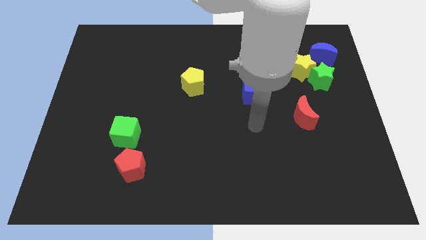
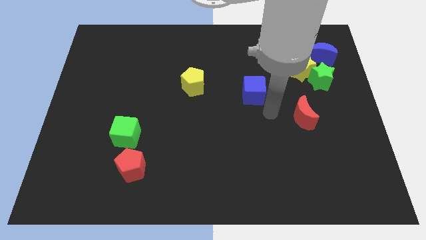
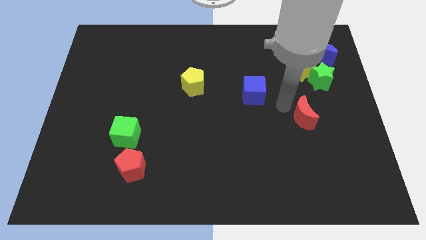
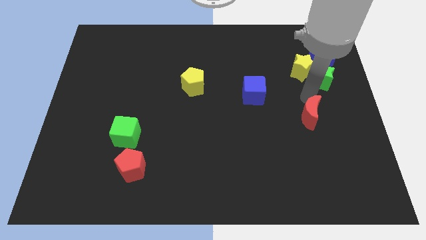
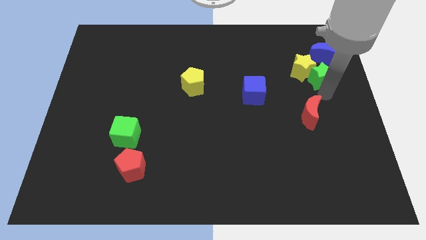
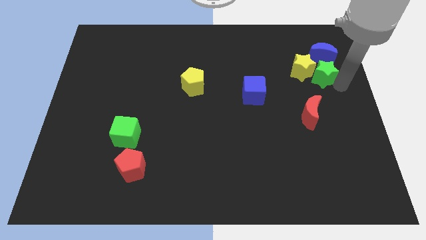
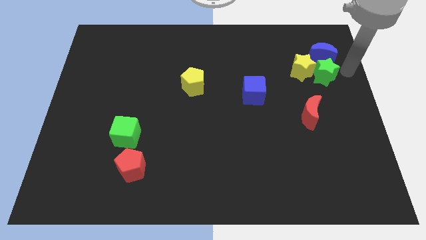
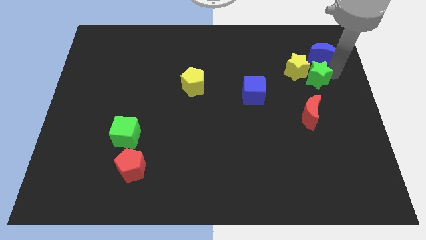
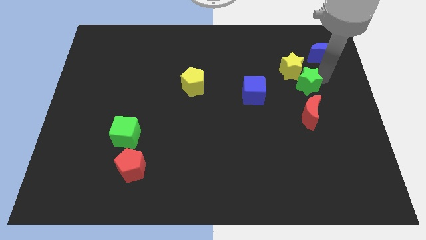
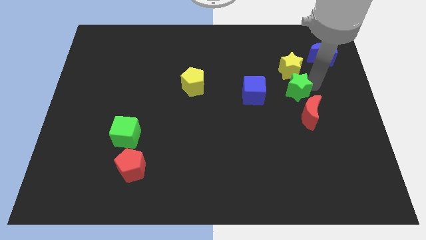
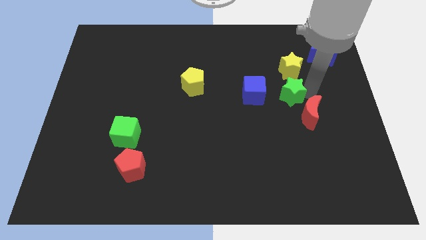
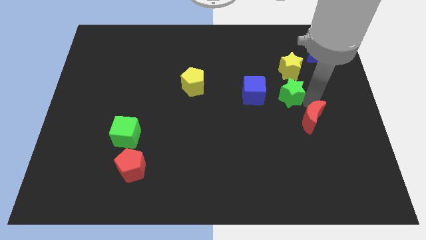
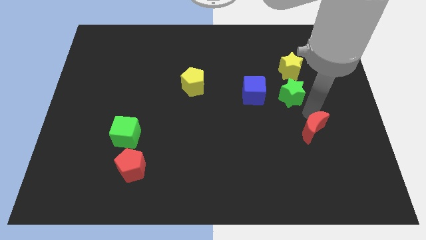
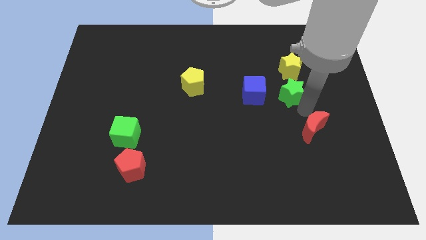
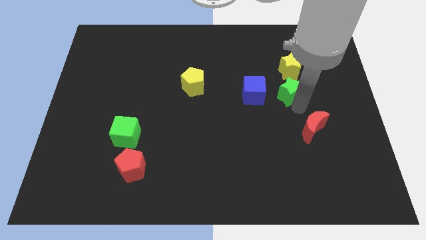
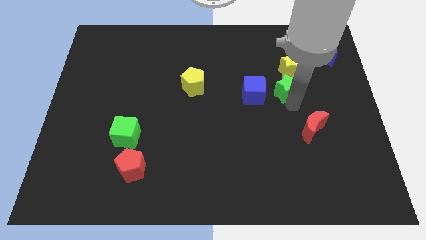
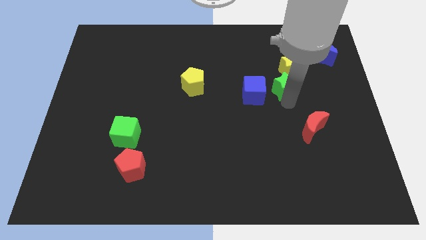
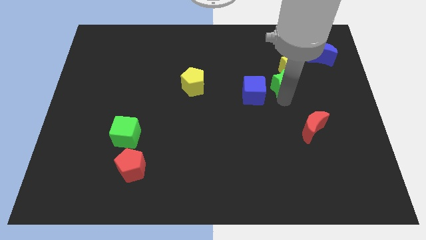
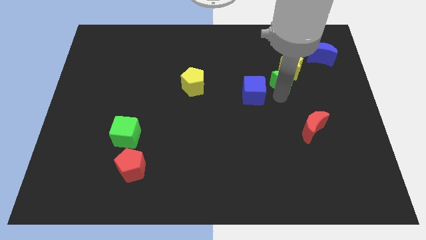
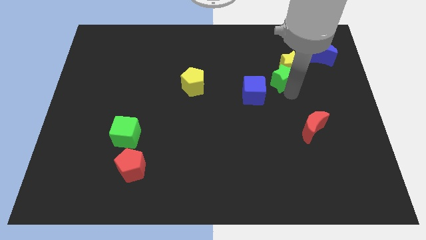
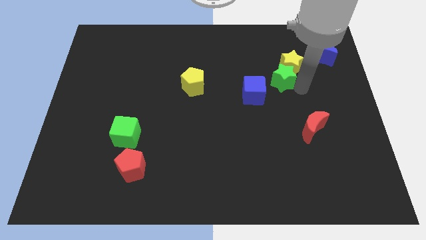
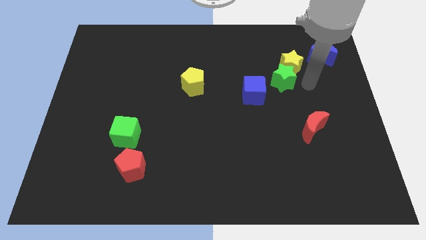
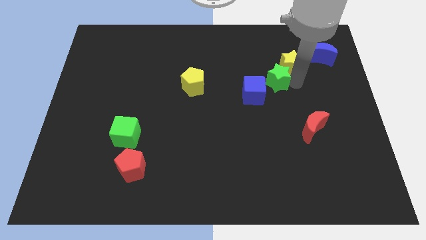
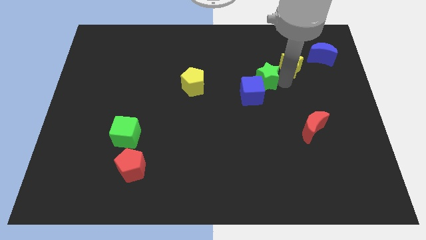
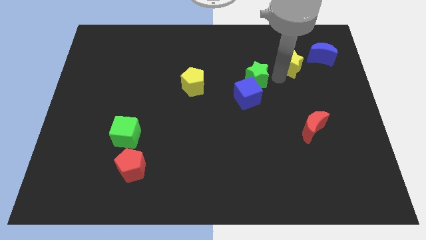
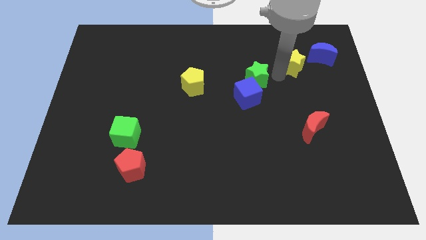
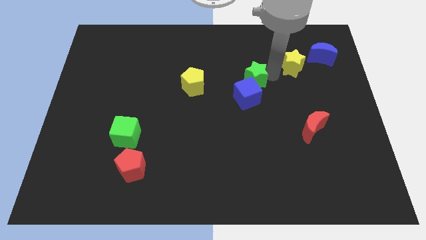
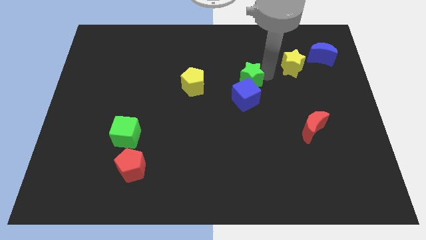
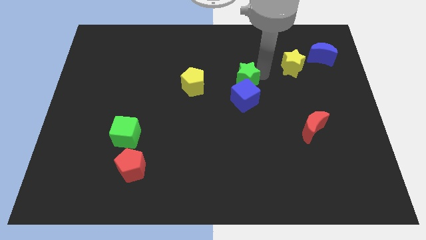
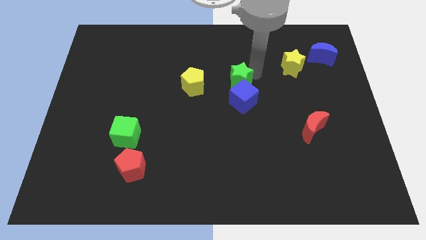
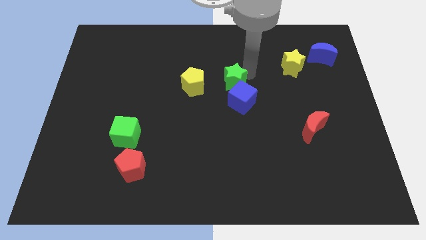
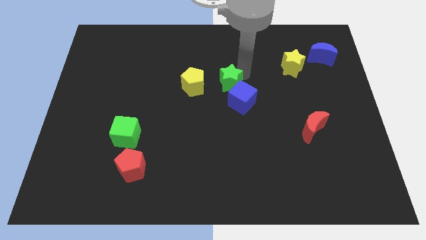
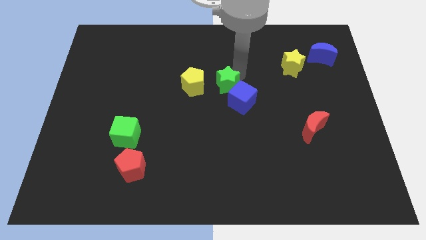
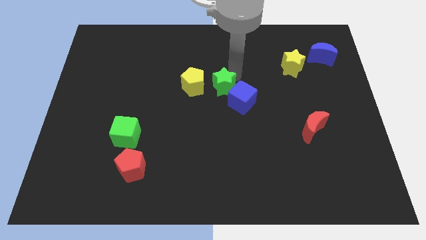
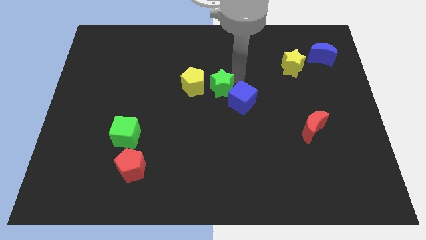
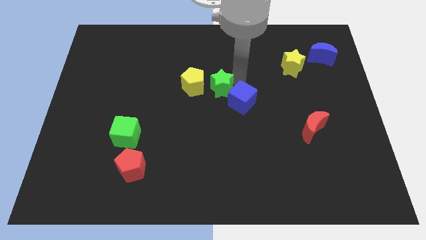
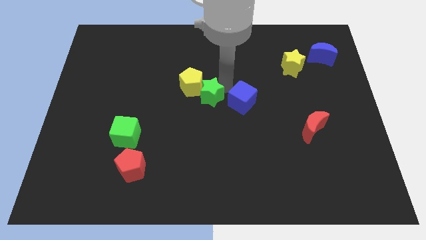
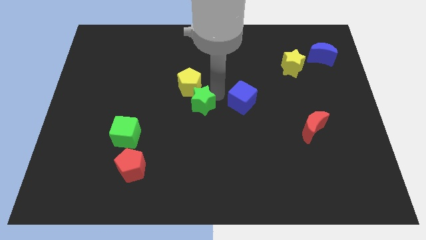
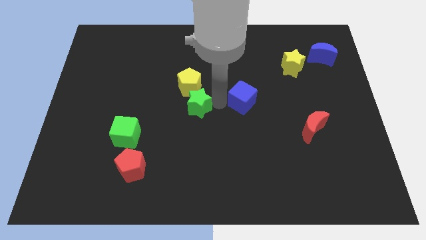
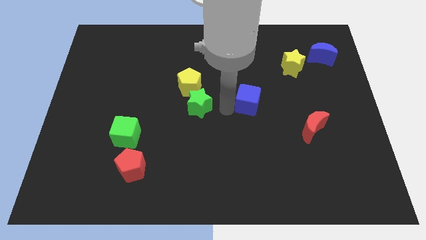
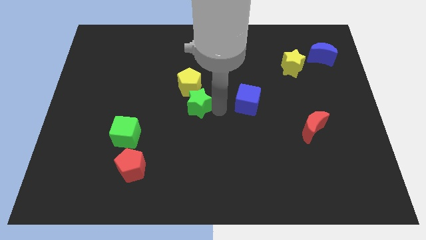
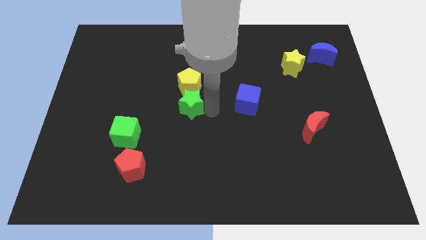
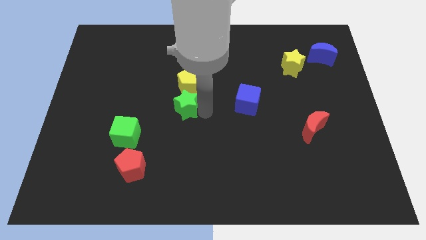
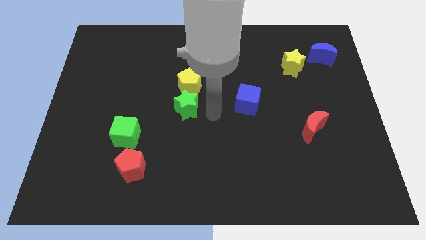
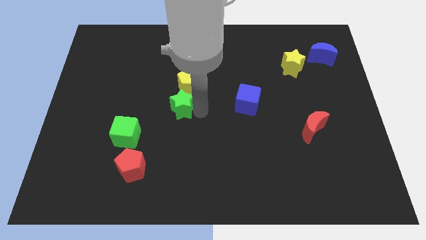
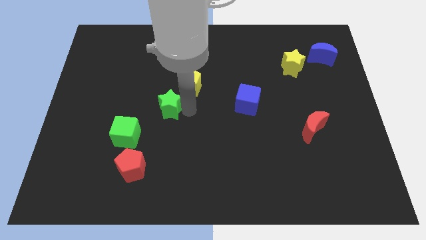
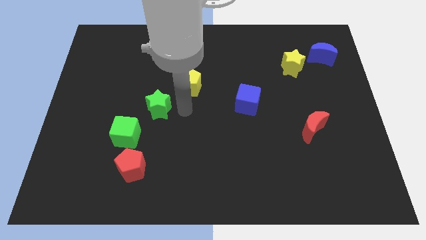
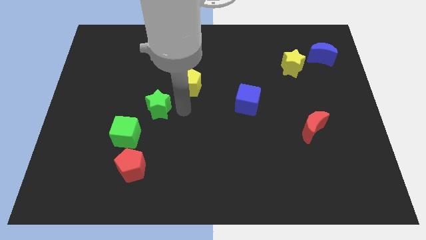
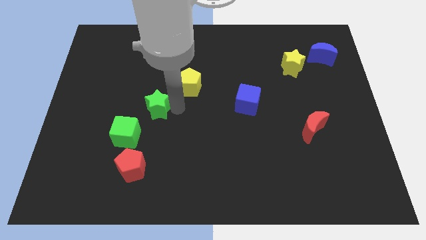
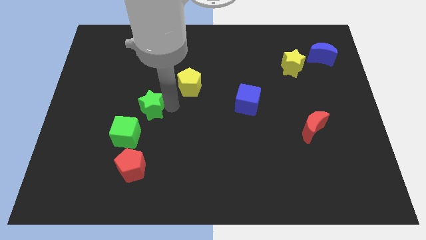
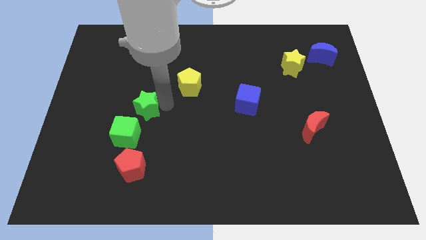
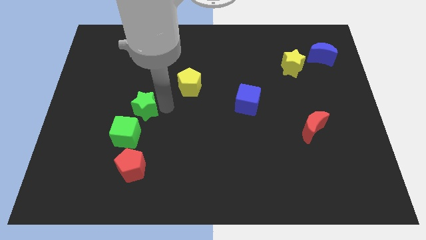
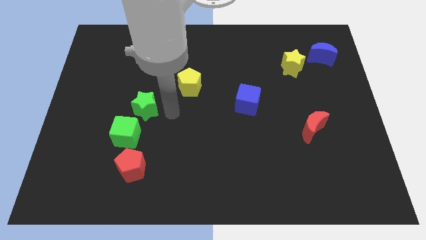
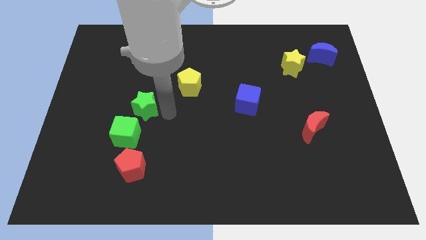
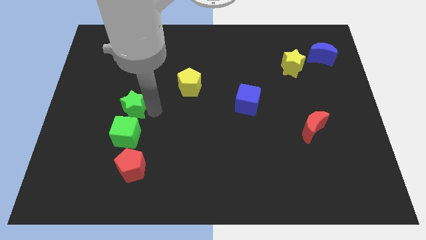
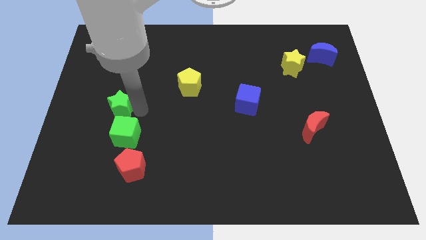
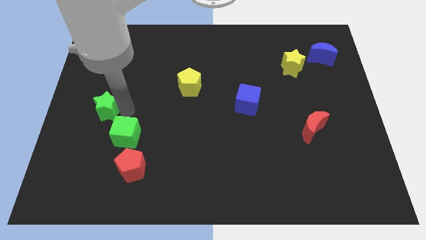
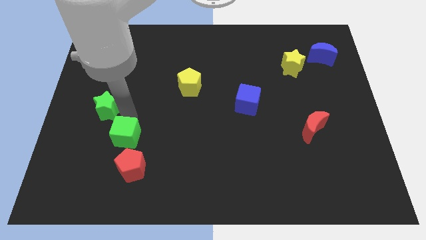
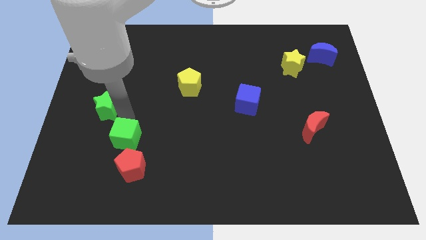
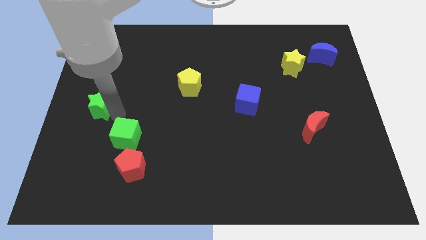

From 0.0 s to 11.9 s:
slide the green star to the left side
